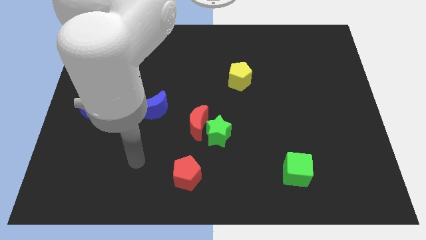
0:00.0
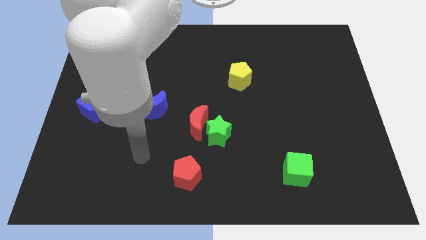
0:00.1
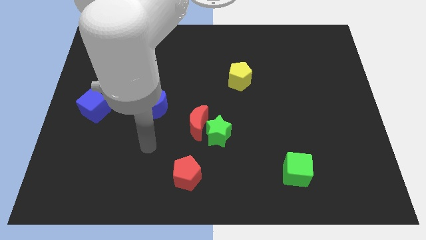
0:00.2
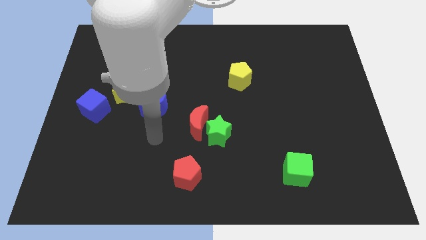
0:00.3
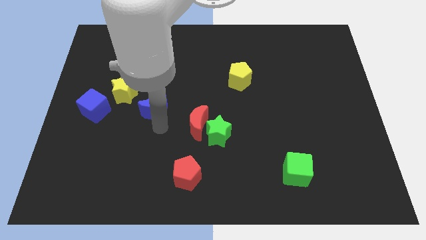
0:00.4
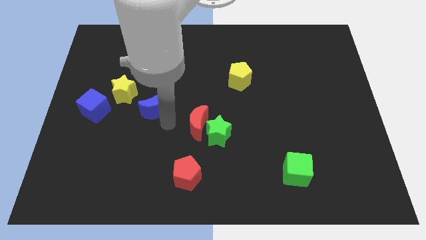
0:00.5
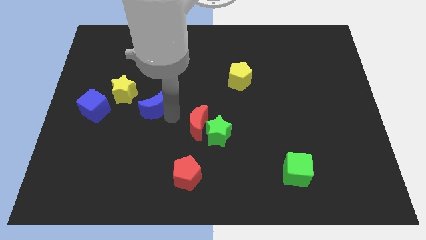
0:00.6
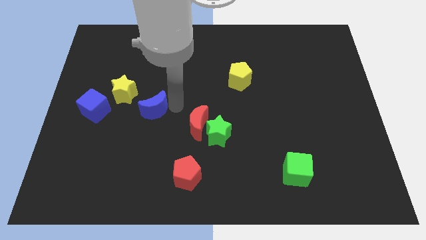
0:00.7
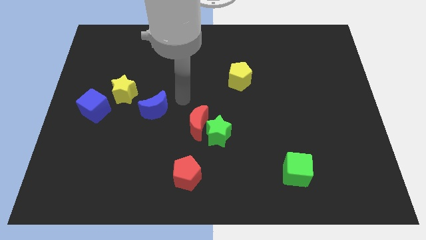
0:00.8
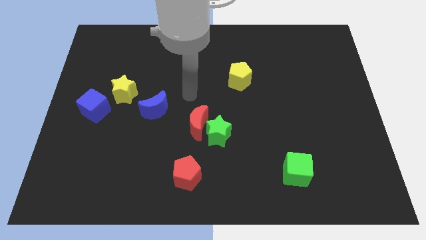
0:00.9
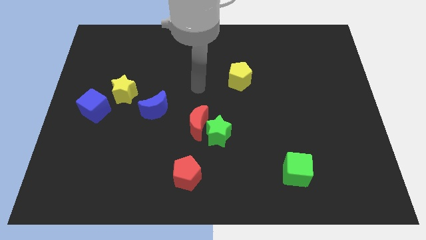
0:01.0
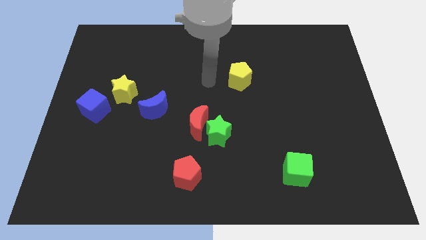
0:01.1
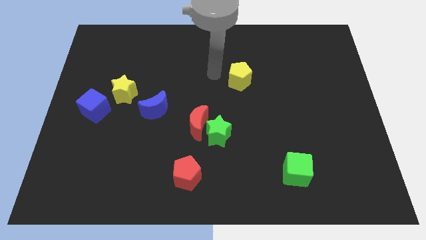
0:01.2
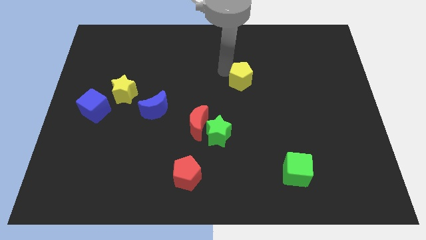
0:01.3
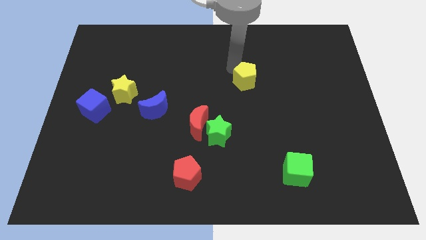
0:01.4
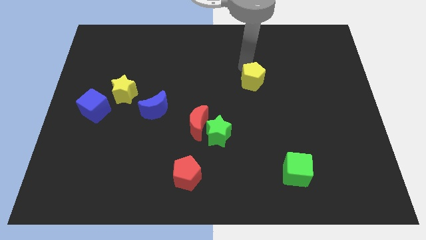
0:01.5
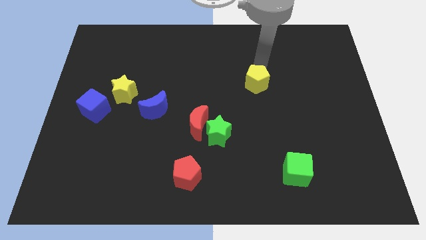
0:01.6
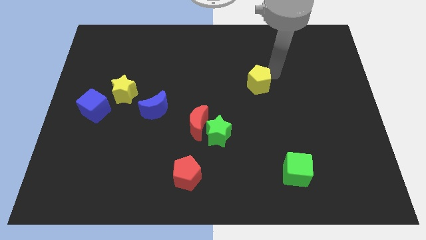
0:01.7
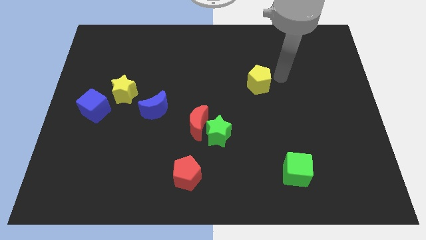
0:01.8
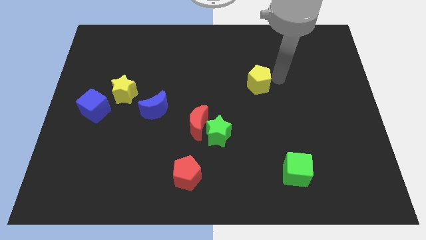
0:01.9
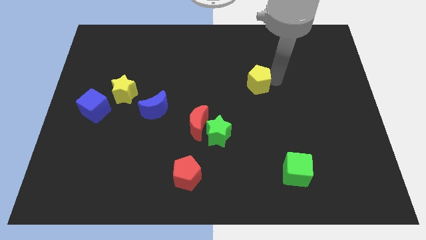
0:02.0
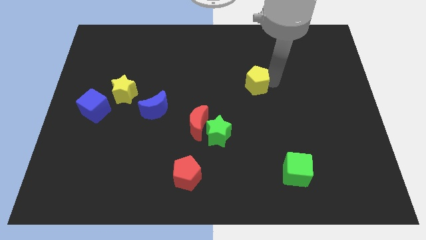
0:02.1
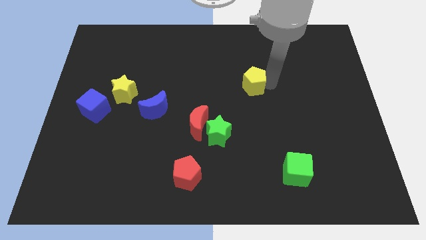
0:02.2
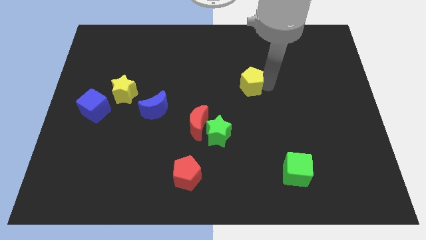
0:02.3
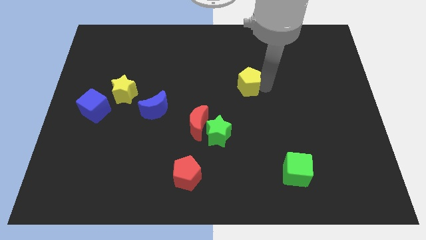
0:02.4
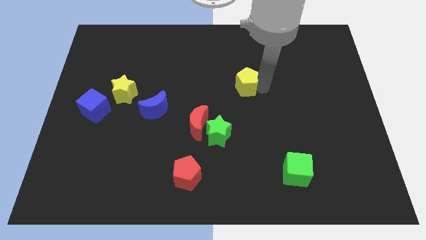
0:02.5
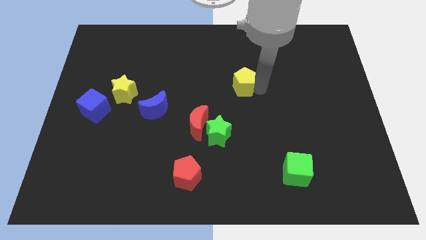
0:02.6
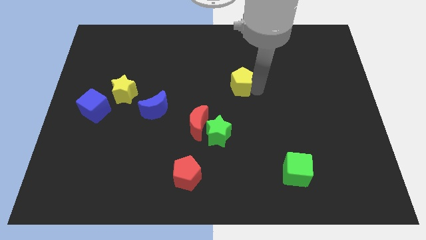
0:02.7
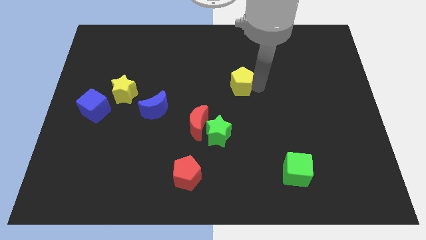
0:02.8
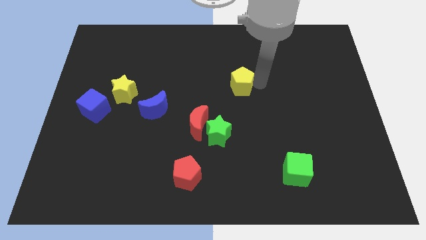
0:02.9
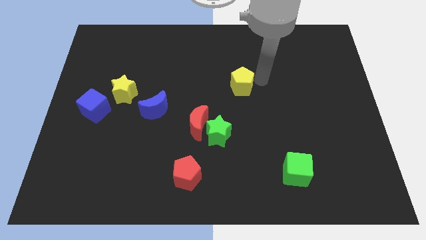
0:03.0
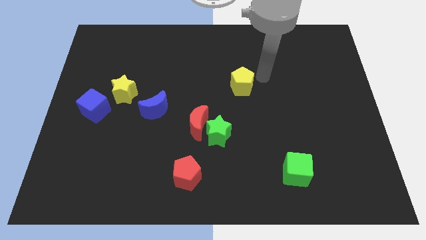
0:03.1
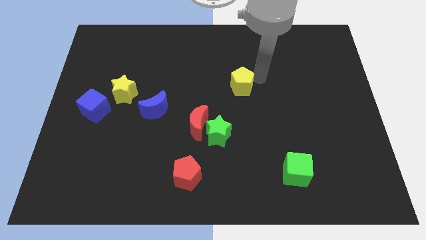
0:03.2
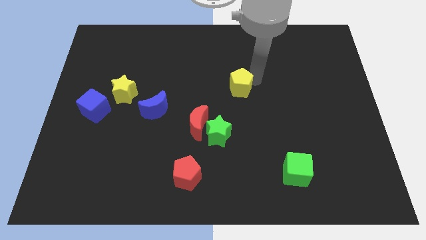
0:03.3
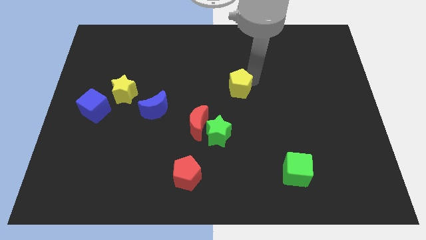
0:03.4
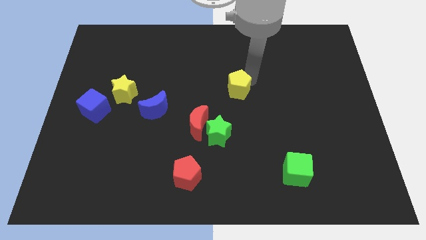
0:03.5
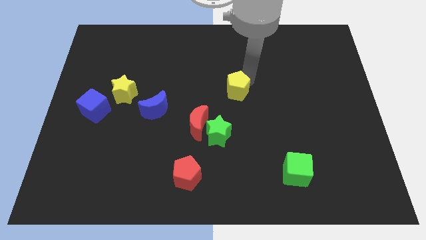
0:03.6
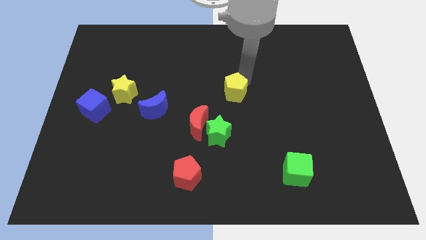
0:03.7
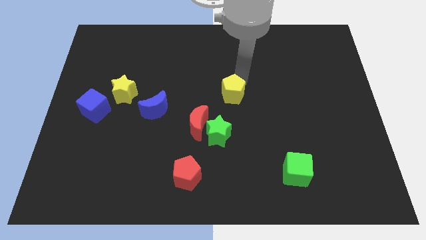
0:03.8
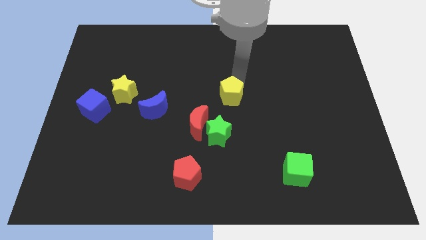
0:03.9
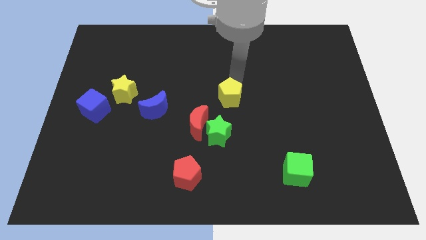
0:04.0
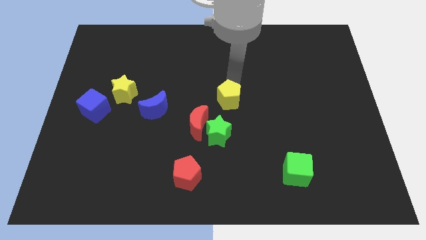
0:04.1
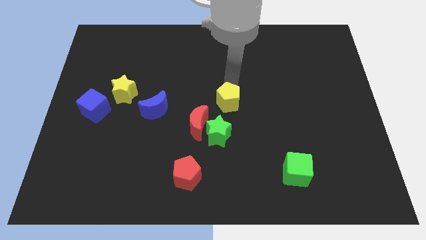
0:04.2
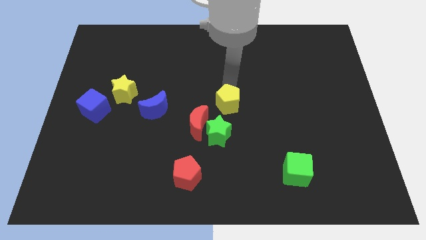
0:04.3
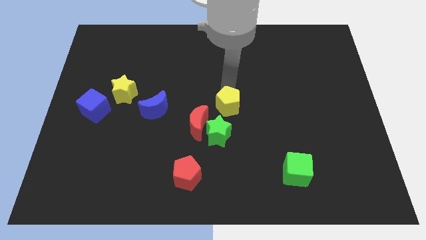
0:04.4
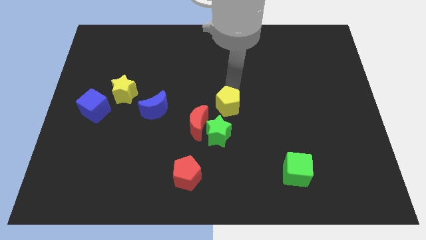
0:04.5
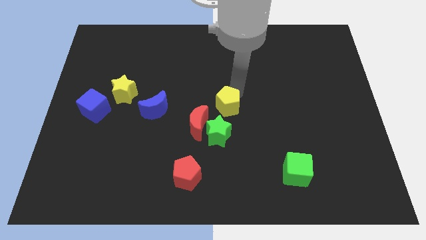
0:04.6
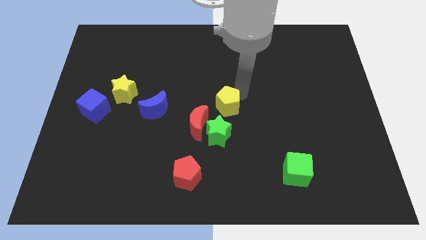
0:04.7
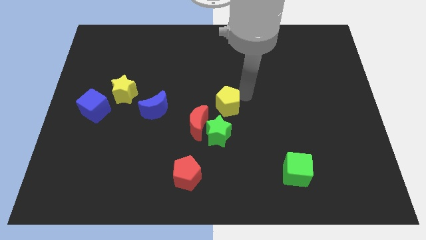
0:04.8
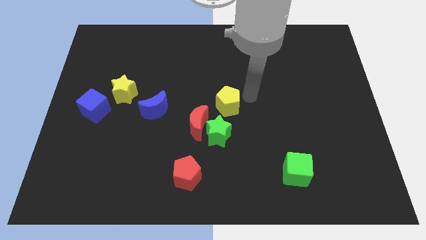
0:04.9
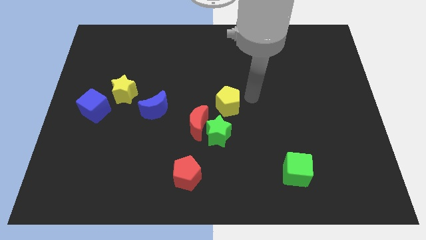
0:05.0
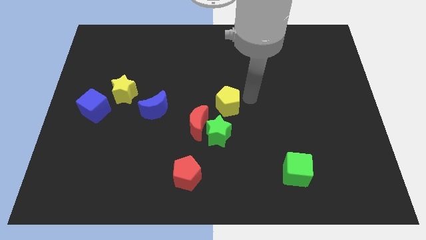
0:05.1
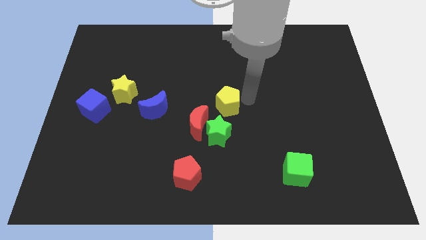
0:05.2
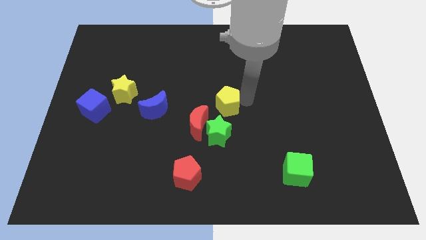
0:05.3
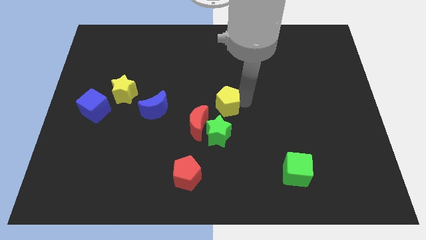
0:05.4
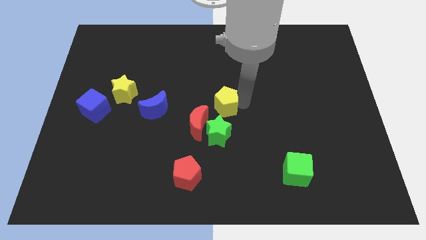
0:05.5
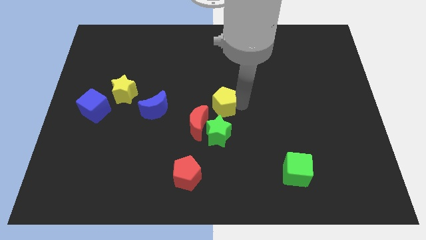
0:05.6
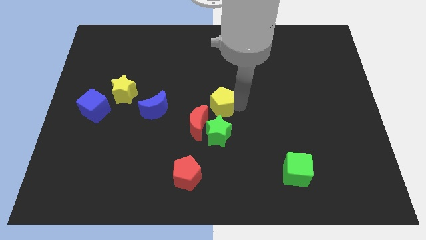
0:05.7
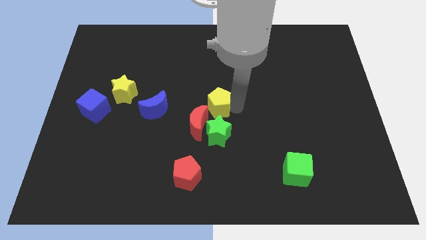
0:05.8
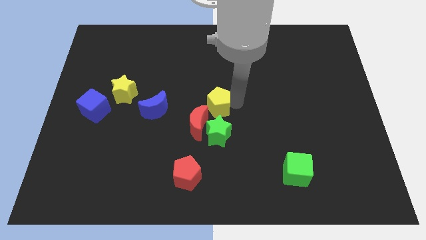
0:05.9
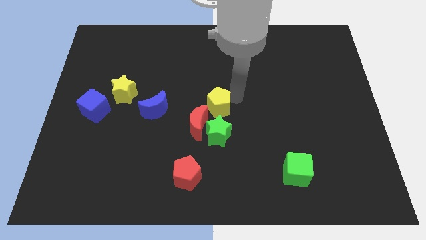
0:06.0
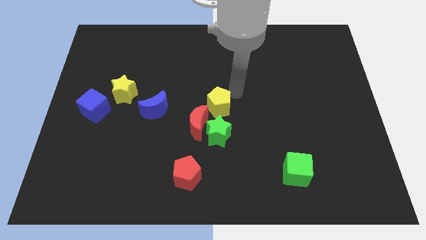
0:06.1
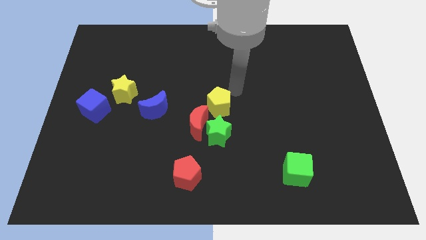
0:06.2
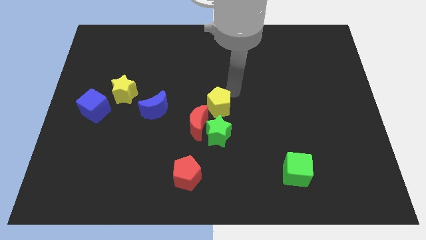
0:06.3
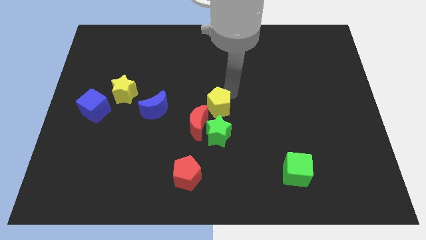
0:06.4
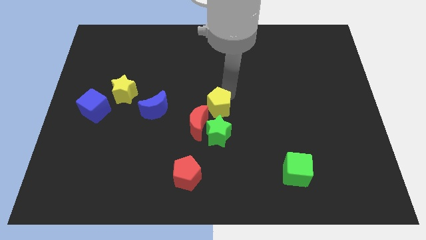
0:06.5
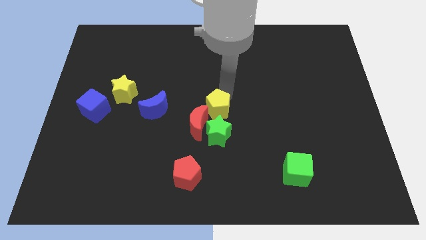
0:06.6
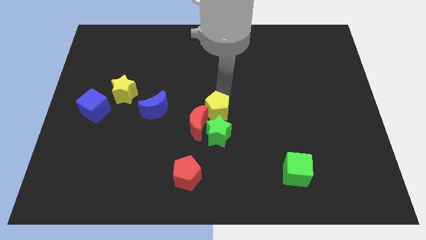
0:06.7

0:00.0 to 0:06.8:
move the yellow pentagon towards the red moon

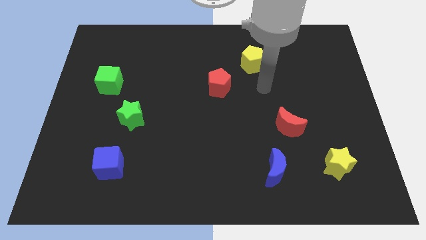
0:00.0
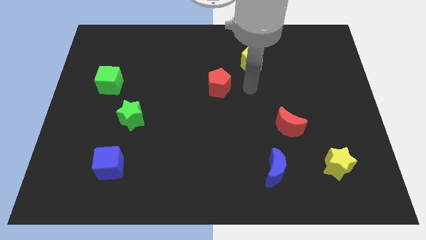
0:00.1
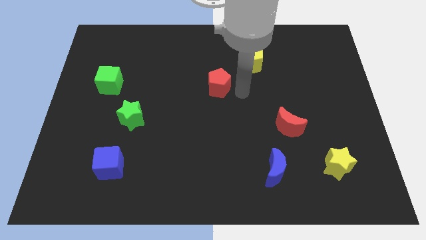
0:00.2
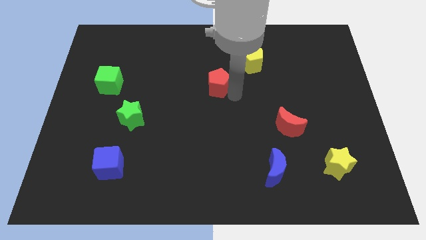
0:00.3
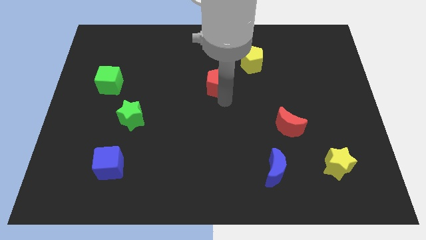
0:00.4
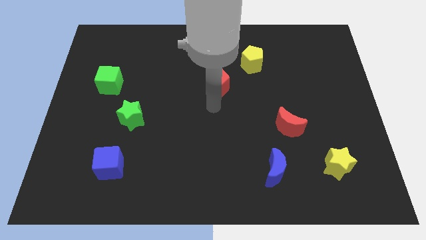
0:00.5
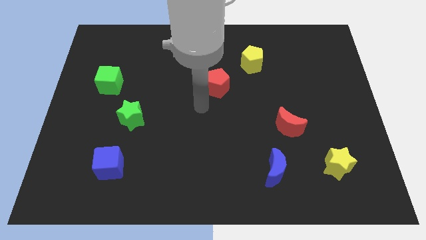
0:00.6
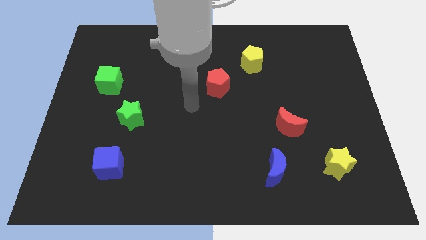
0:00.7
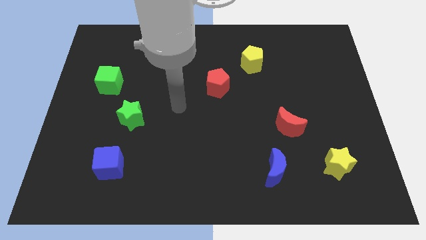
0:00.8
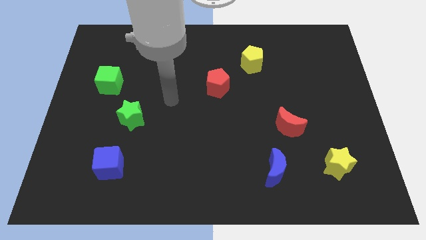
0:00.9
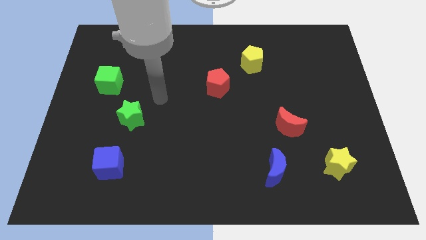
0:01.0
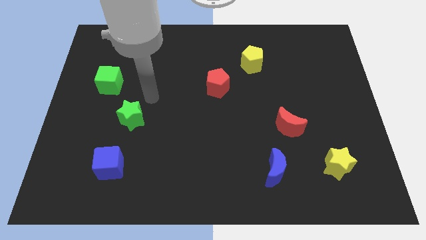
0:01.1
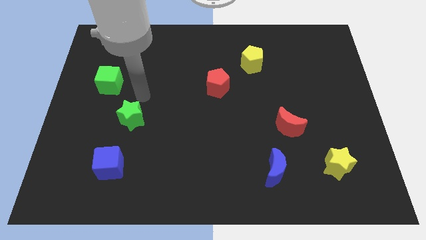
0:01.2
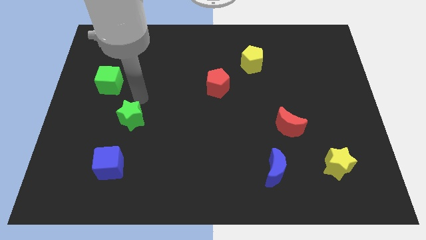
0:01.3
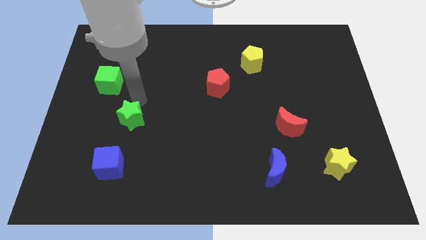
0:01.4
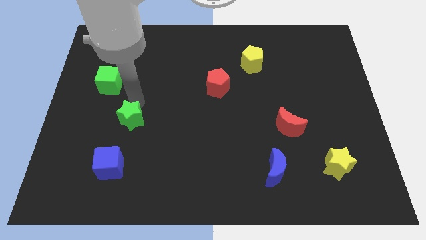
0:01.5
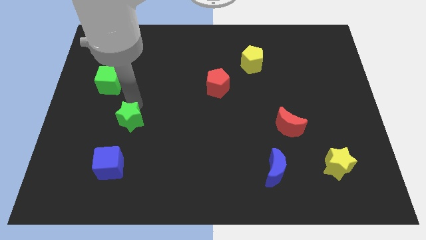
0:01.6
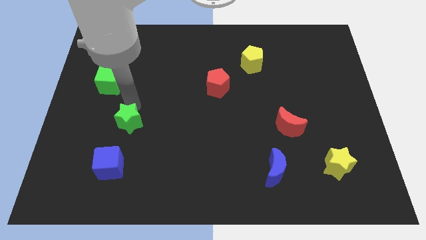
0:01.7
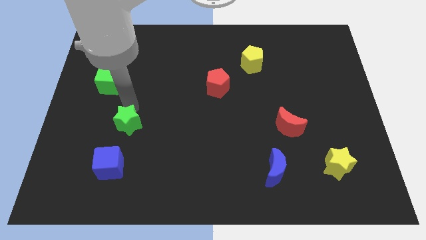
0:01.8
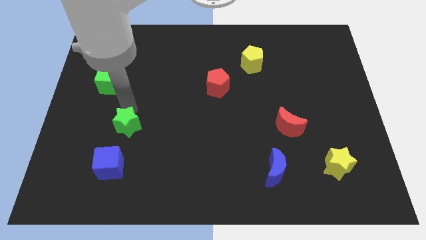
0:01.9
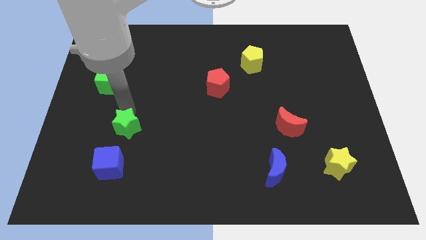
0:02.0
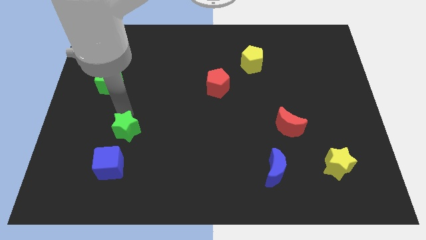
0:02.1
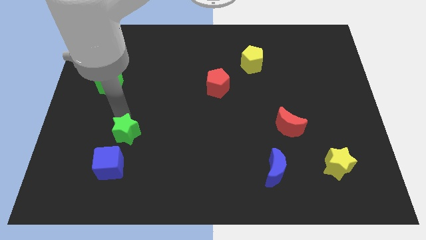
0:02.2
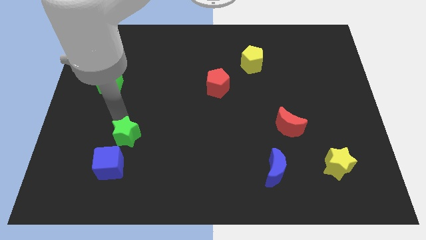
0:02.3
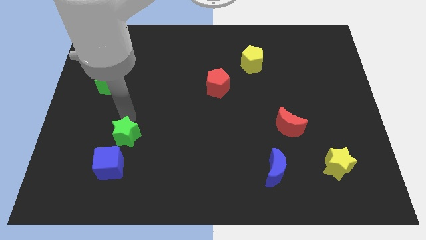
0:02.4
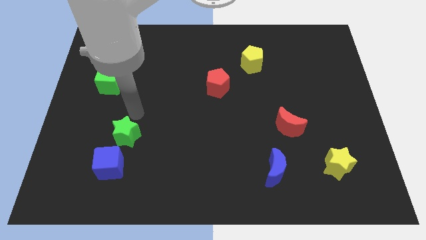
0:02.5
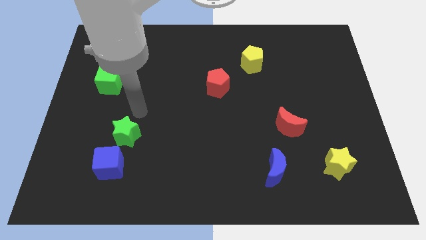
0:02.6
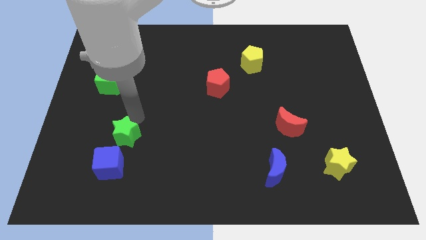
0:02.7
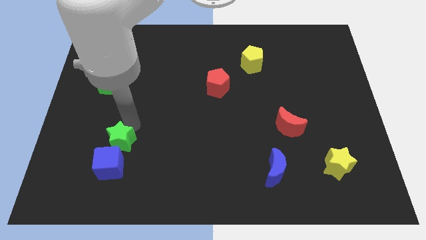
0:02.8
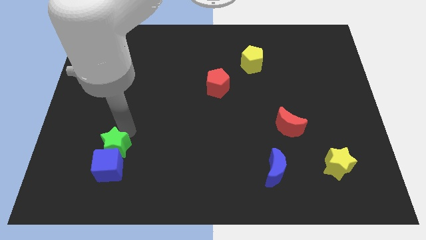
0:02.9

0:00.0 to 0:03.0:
move the green star close to the blue cube
